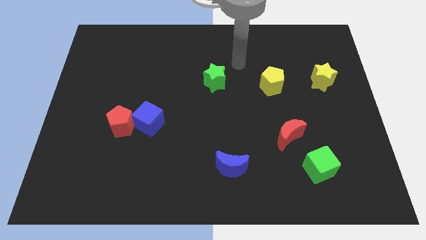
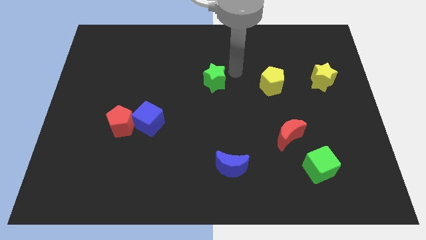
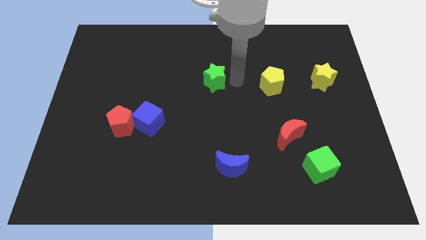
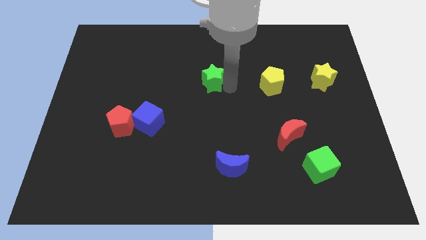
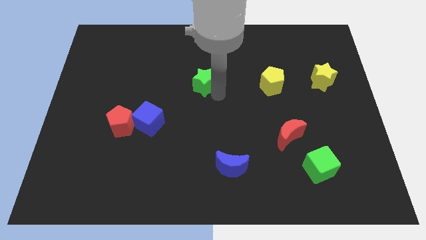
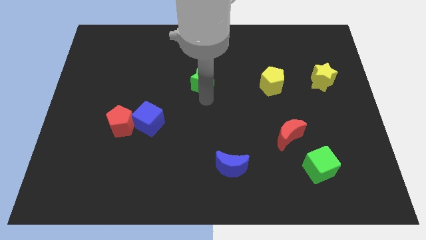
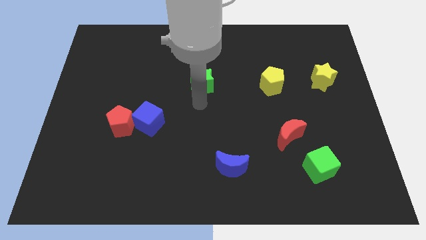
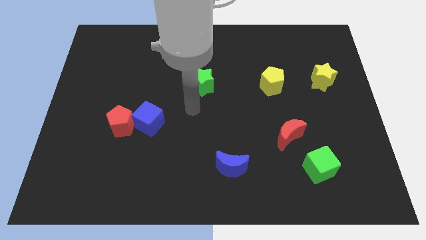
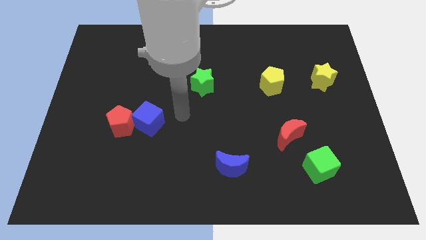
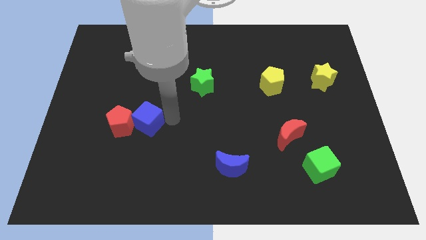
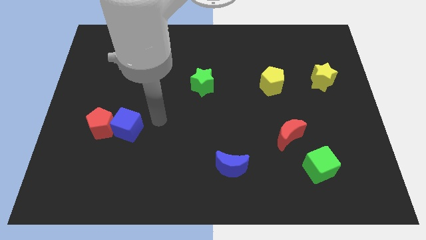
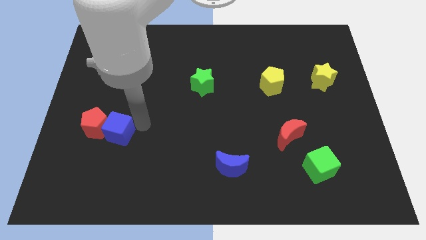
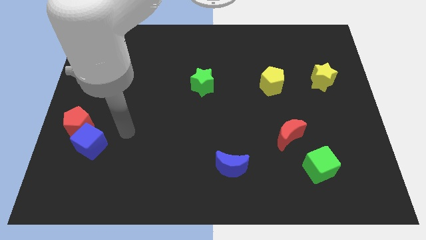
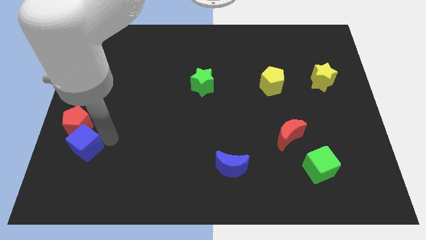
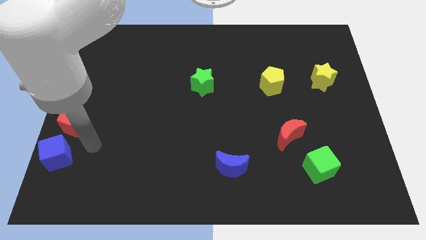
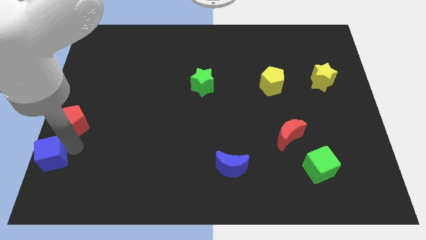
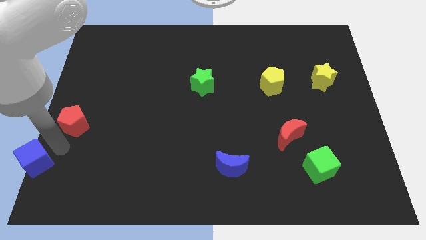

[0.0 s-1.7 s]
pull the red pentagon apart from the blue cube

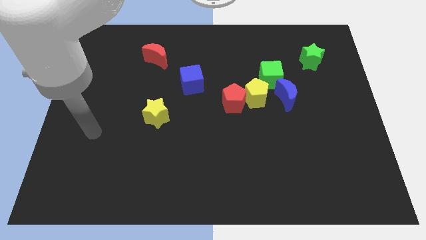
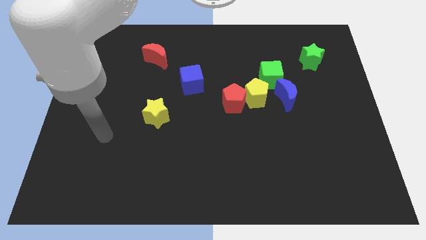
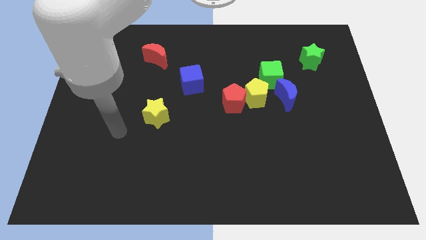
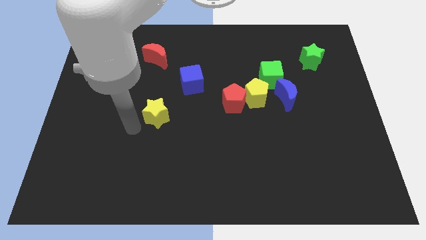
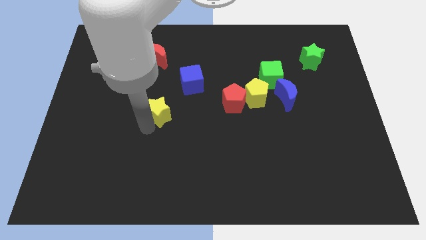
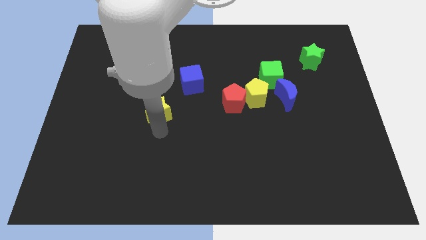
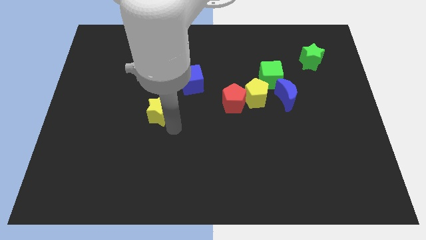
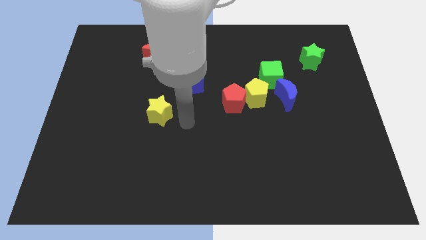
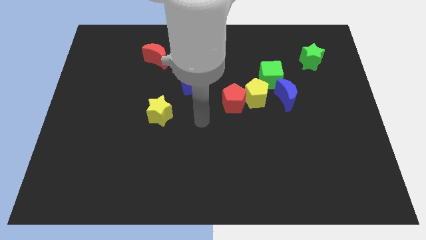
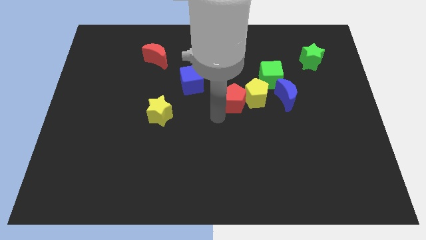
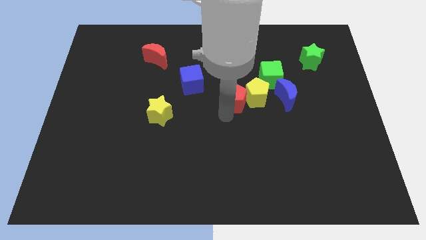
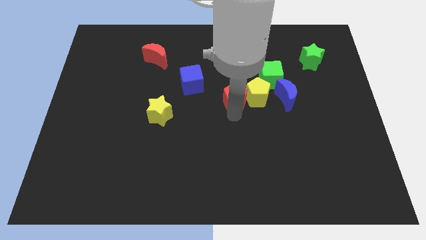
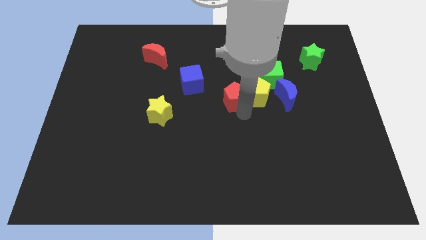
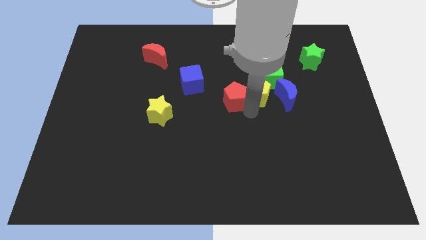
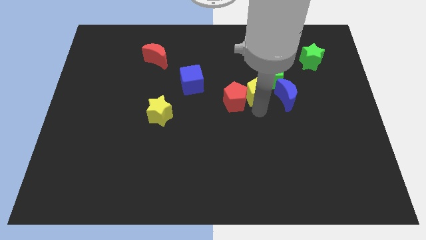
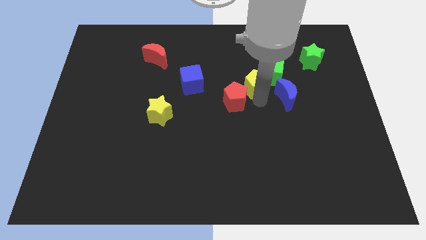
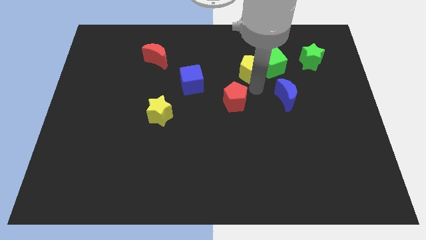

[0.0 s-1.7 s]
move the red pentagon away from the yellow pentagon

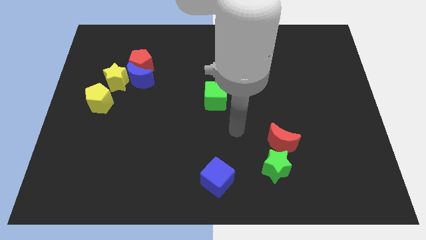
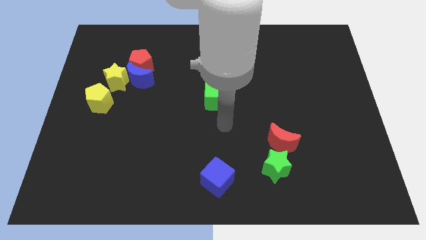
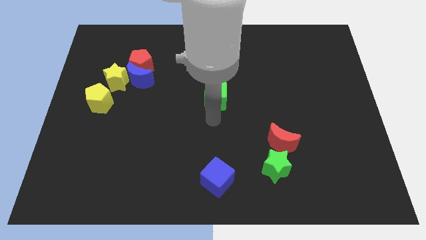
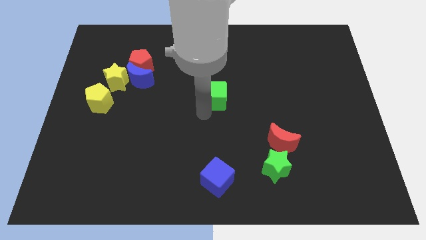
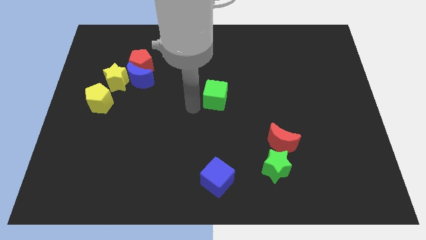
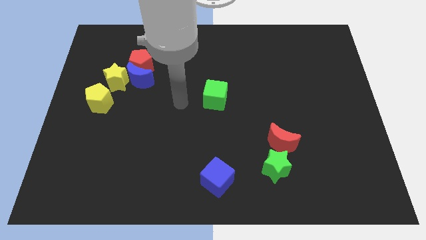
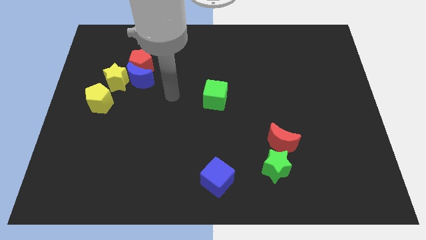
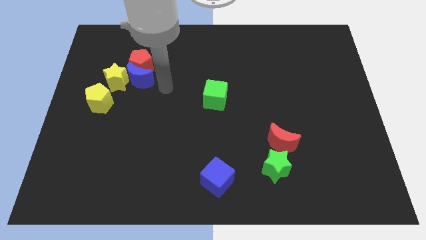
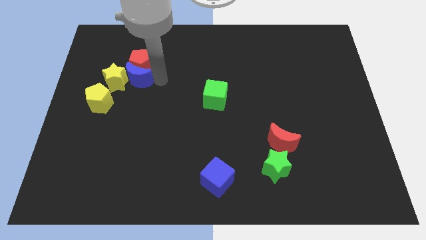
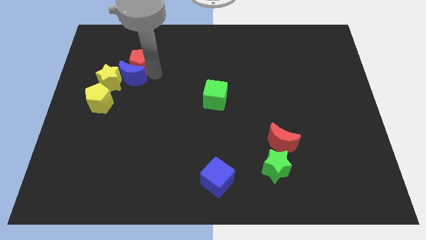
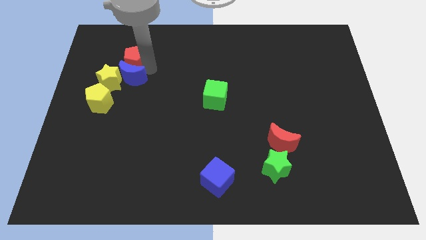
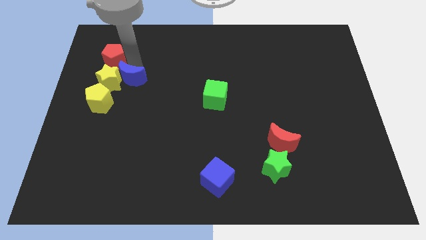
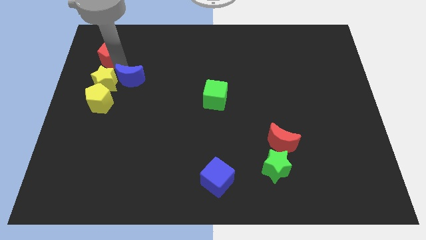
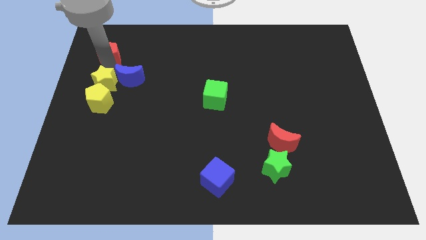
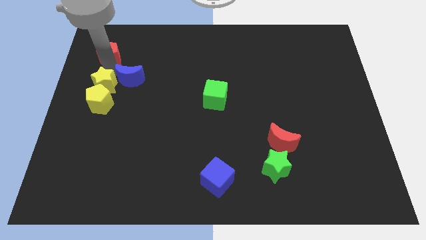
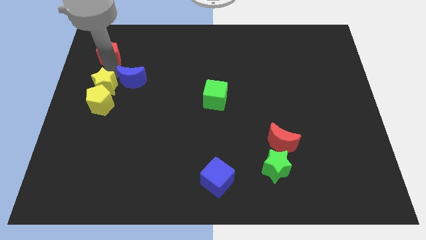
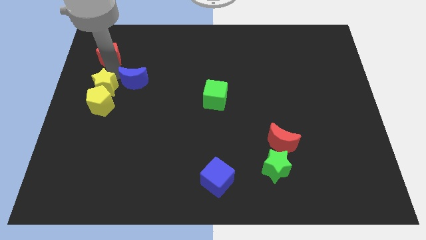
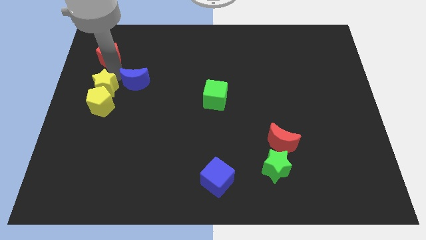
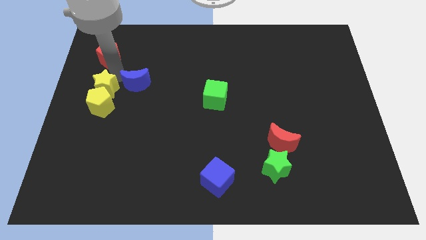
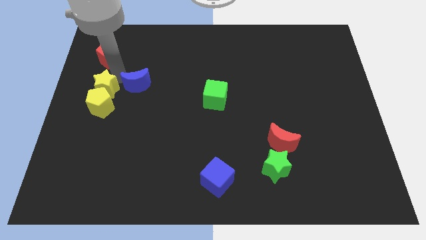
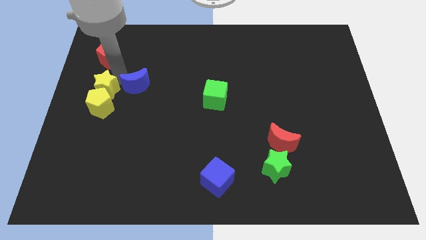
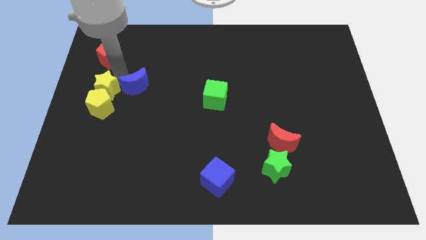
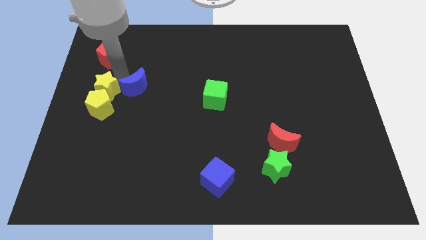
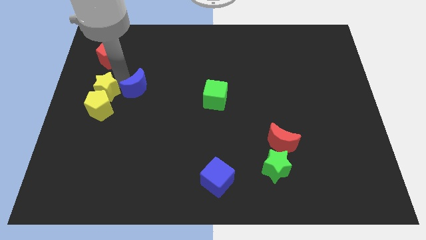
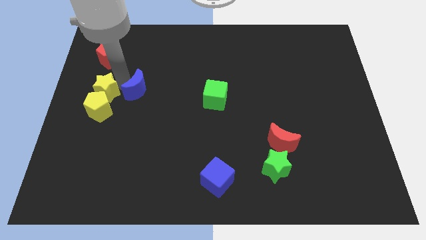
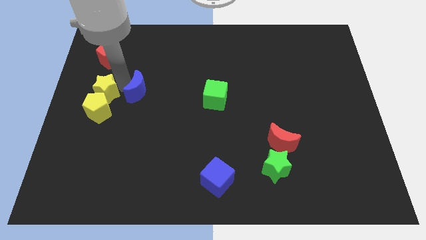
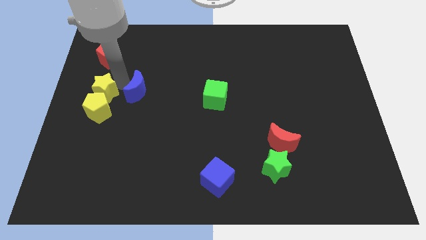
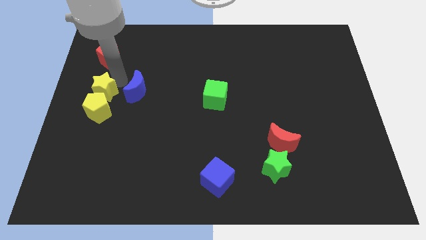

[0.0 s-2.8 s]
pull the blue moon apart from the red pentagon and yellow star

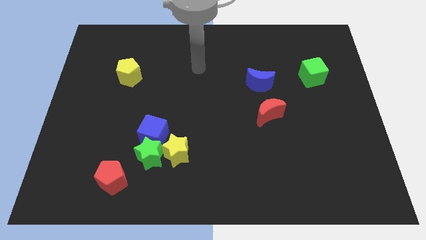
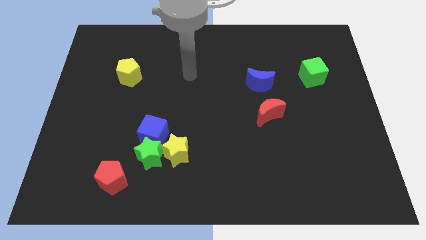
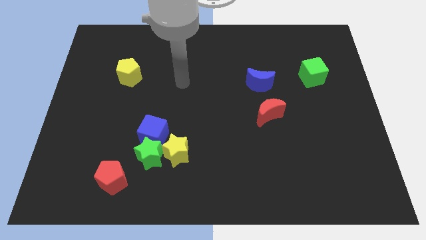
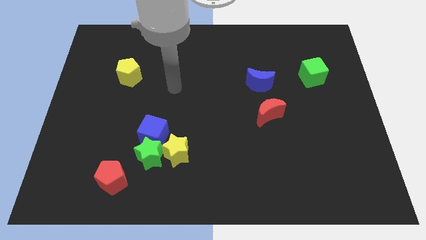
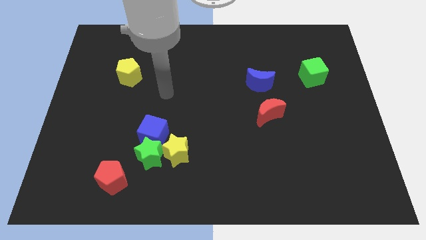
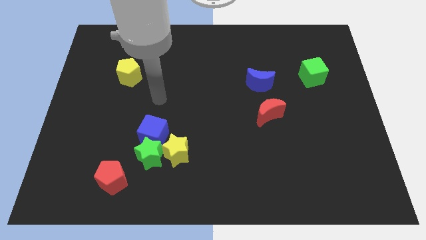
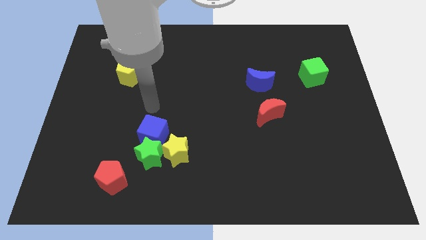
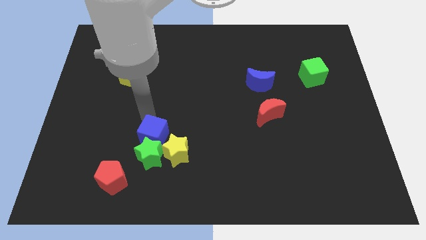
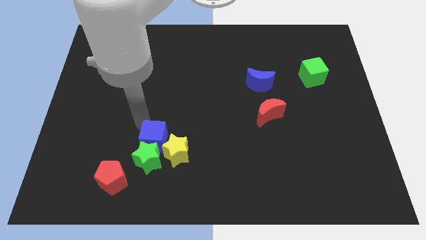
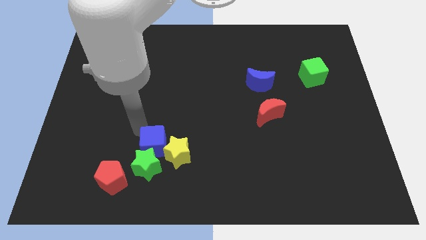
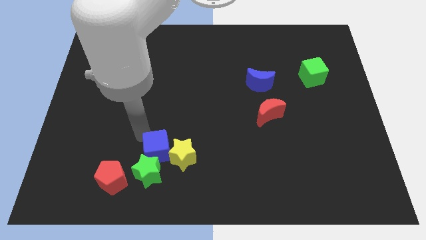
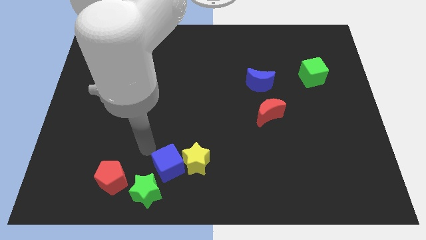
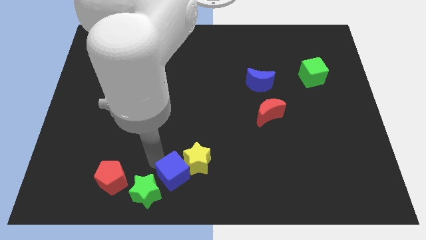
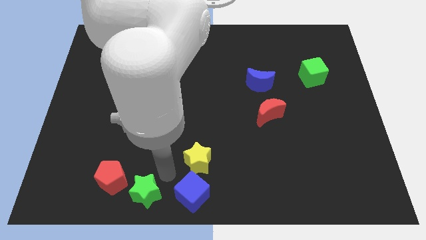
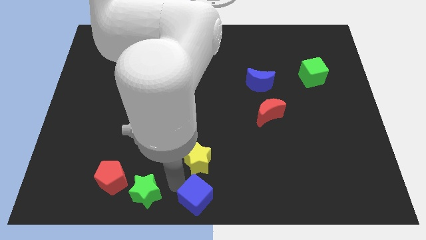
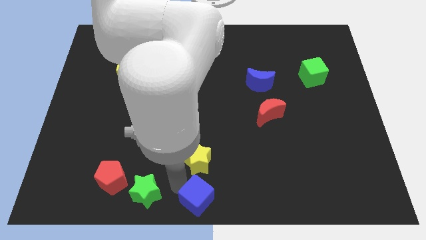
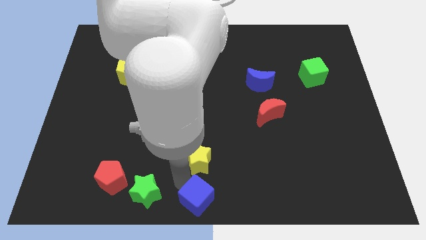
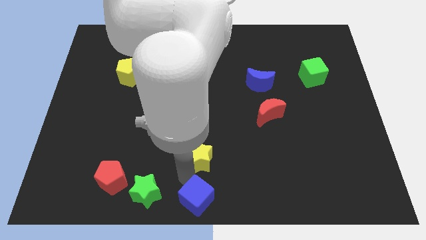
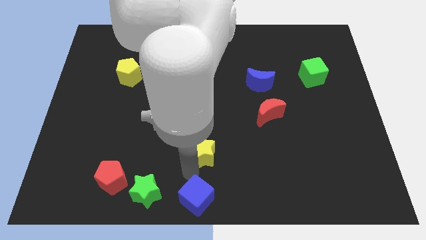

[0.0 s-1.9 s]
pull the yellow star apart from the green star and blue cube

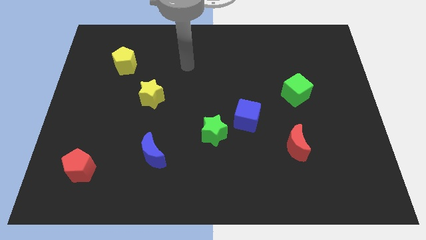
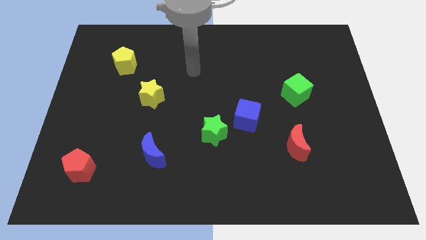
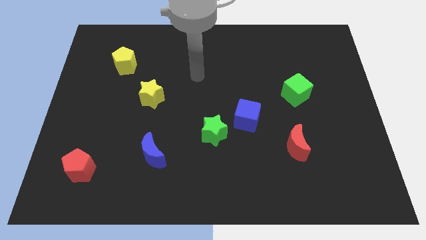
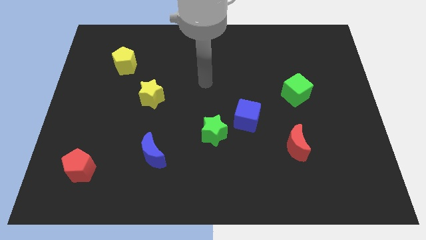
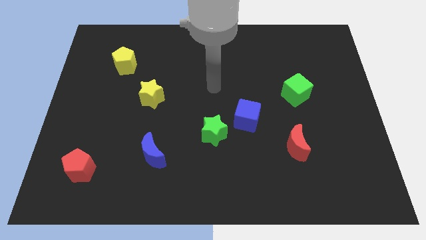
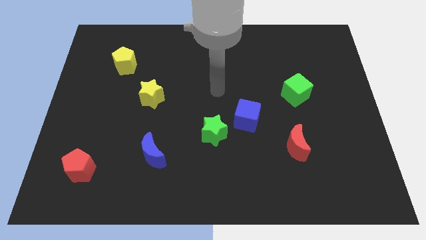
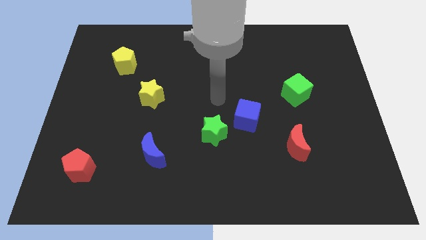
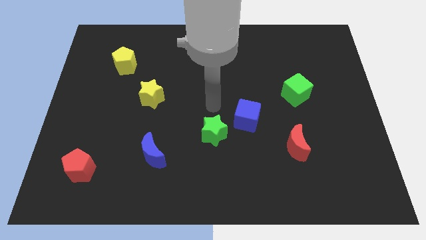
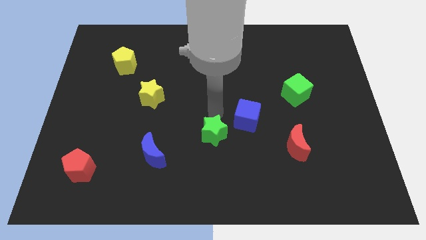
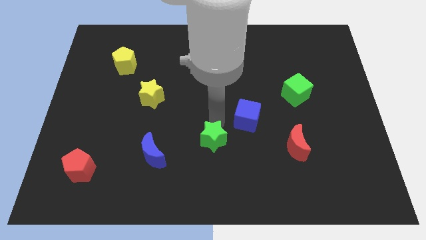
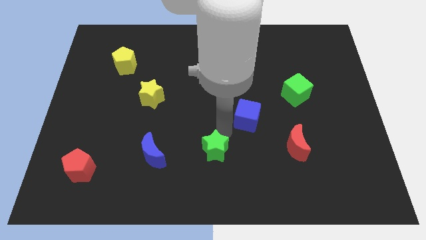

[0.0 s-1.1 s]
pull the blue cube apart from the green star
